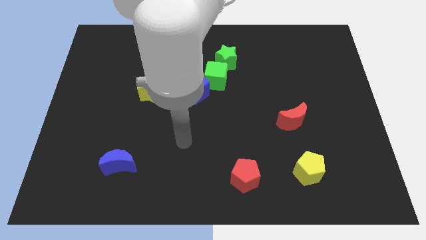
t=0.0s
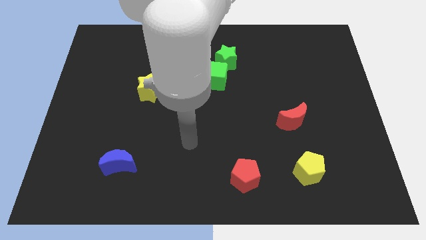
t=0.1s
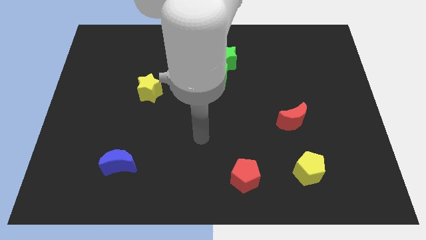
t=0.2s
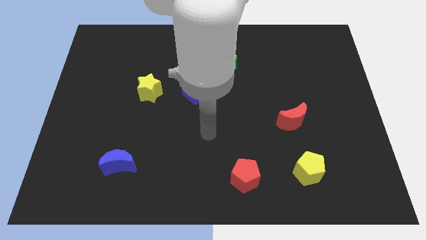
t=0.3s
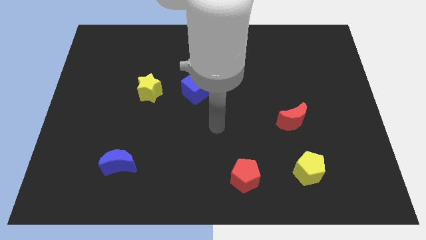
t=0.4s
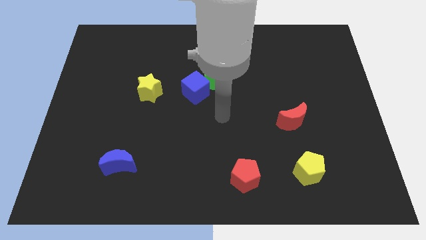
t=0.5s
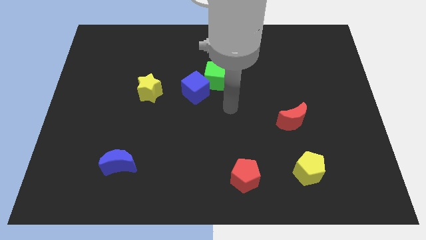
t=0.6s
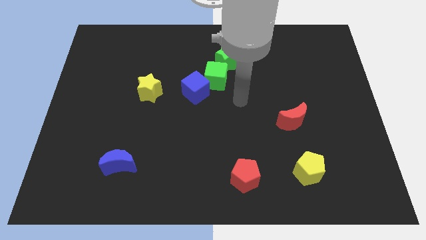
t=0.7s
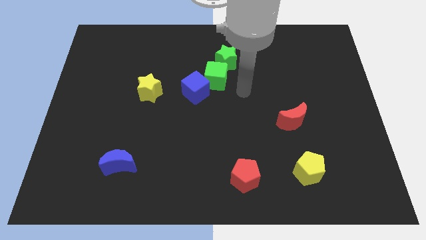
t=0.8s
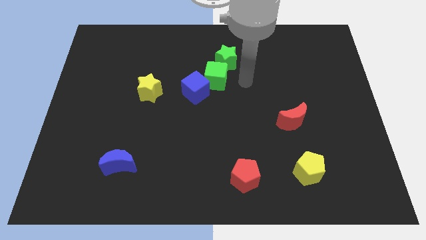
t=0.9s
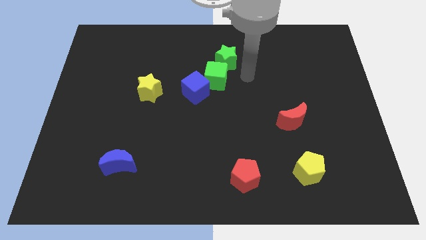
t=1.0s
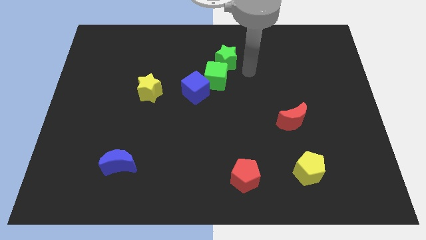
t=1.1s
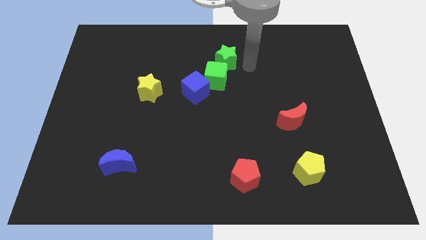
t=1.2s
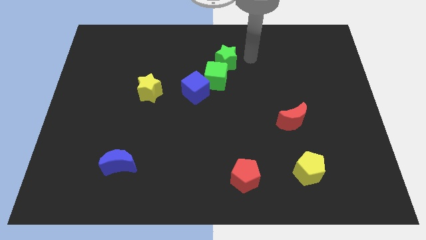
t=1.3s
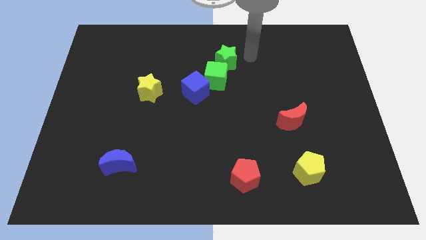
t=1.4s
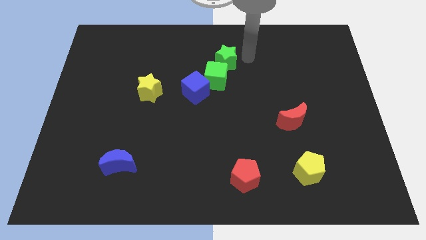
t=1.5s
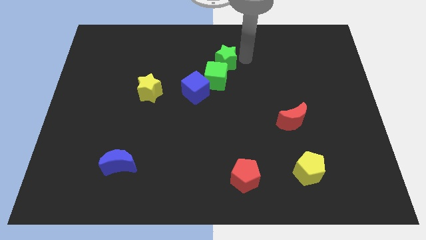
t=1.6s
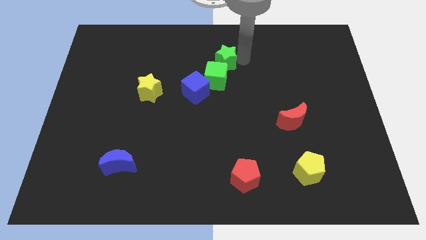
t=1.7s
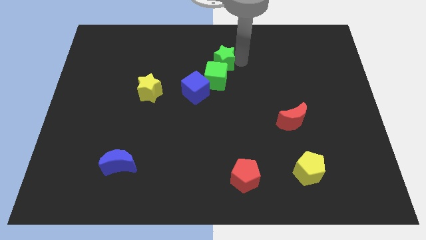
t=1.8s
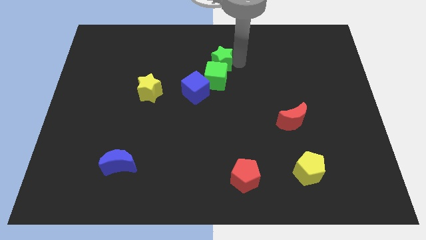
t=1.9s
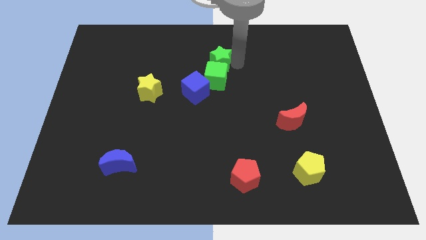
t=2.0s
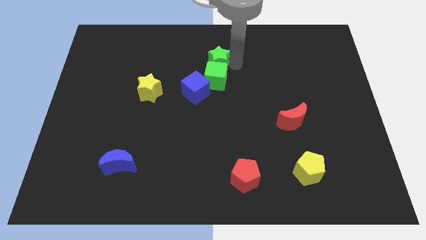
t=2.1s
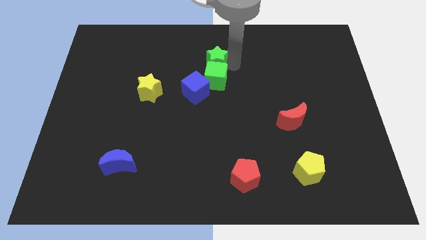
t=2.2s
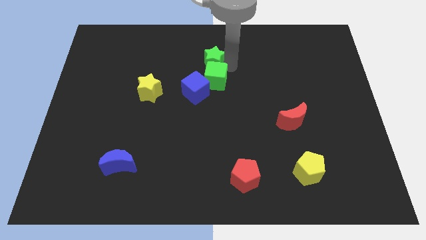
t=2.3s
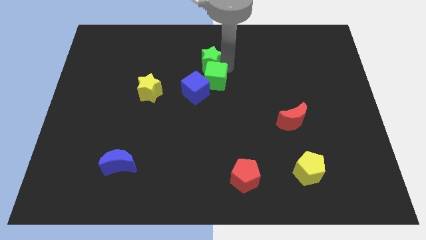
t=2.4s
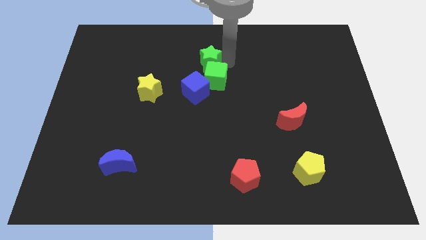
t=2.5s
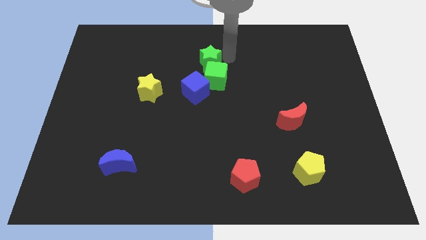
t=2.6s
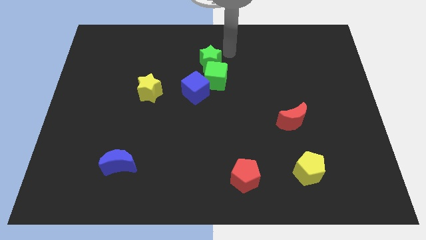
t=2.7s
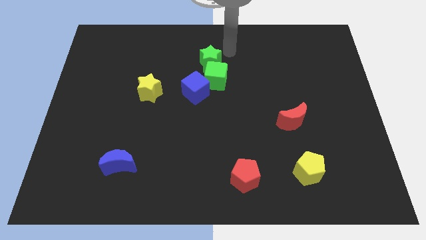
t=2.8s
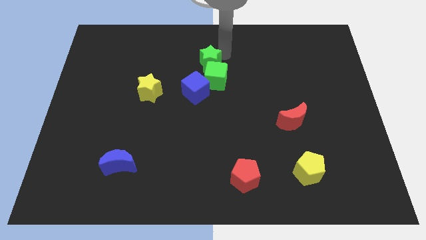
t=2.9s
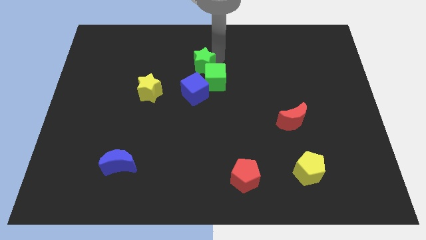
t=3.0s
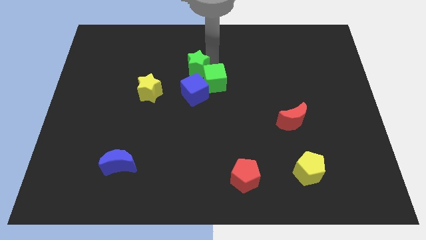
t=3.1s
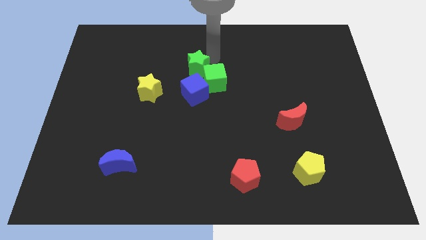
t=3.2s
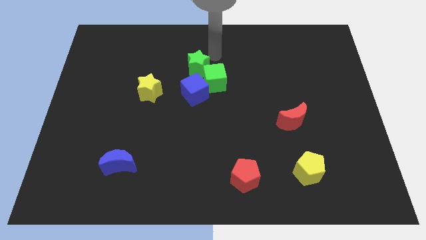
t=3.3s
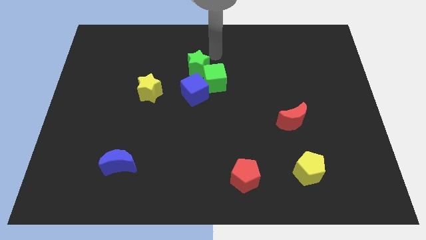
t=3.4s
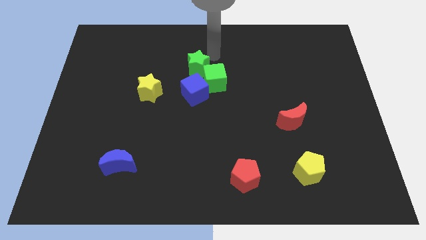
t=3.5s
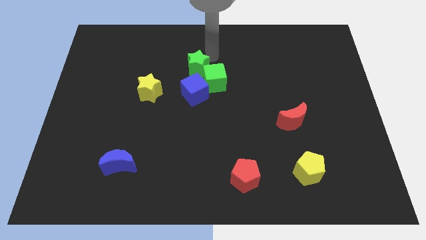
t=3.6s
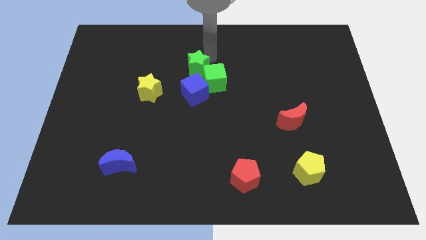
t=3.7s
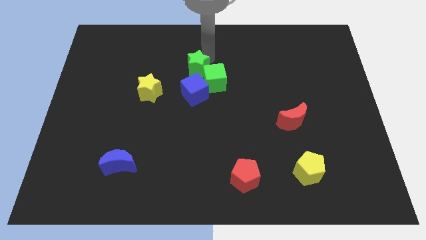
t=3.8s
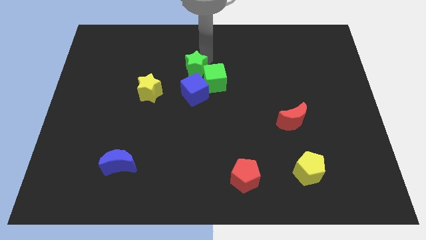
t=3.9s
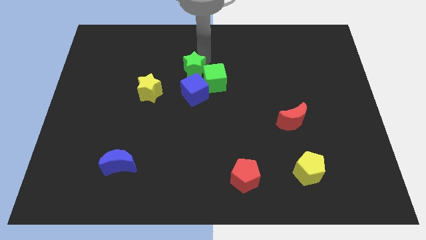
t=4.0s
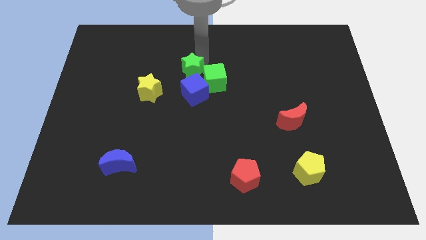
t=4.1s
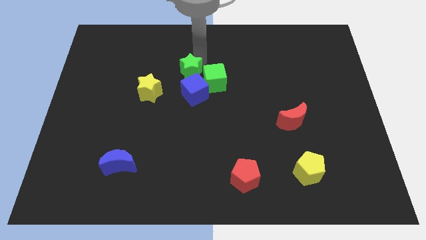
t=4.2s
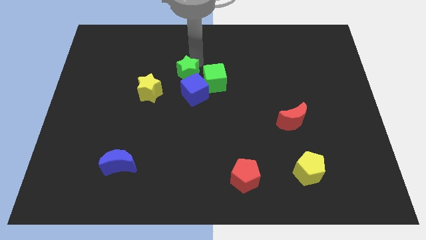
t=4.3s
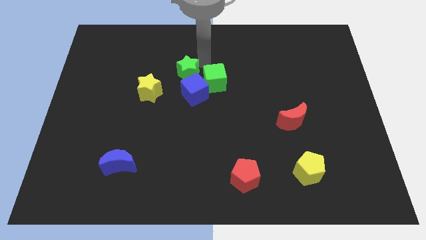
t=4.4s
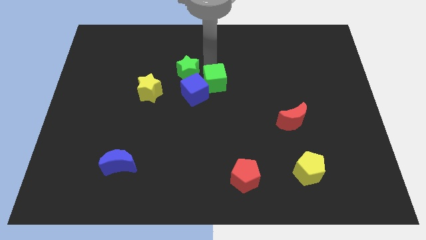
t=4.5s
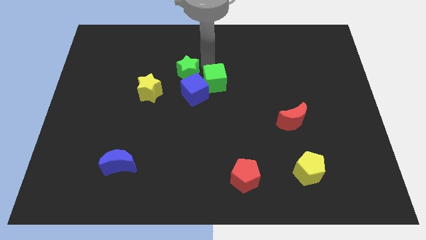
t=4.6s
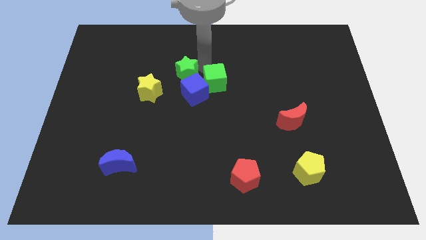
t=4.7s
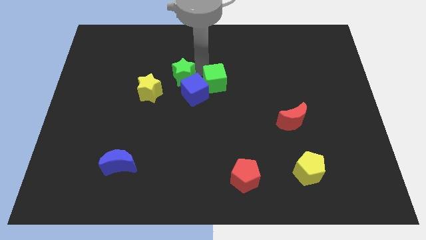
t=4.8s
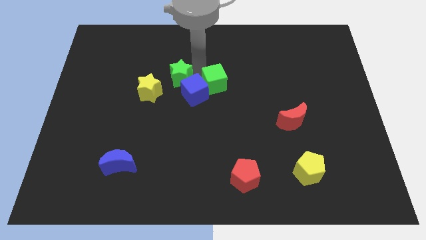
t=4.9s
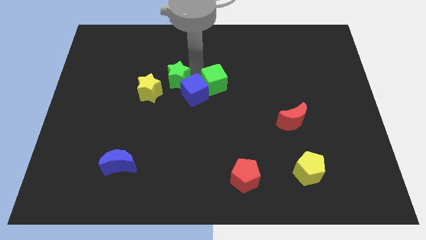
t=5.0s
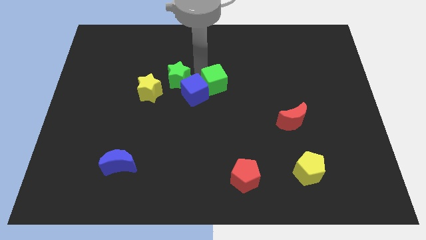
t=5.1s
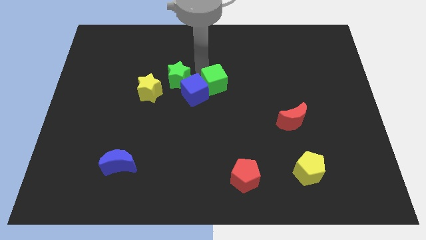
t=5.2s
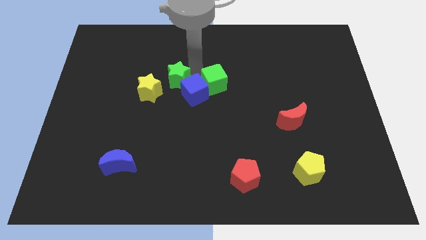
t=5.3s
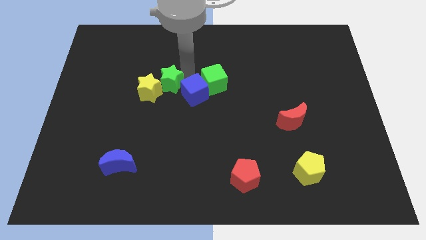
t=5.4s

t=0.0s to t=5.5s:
move the green star to the yellow star

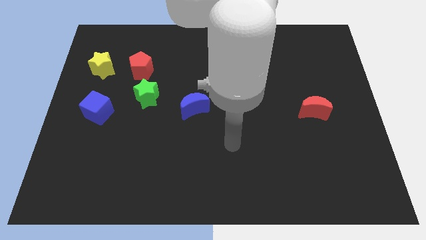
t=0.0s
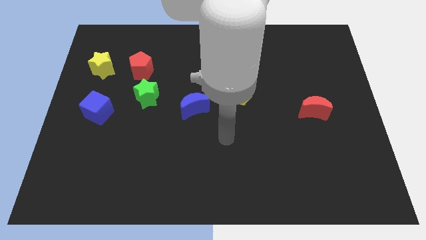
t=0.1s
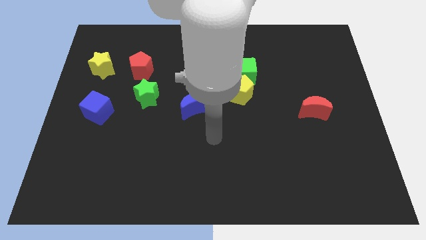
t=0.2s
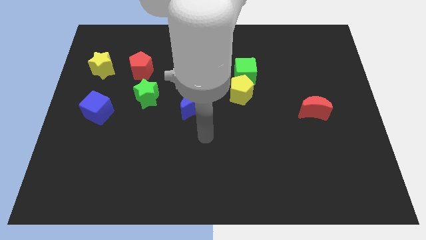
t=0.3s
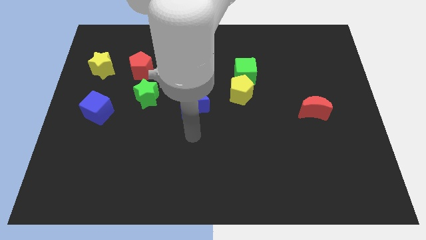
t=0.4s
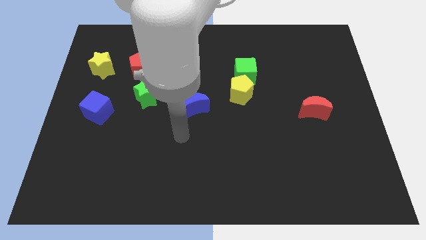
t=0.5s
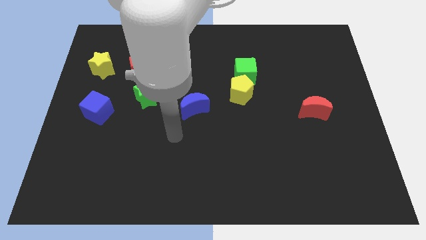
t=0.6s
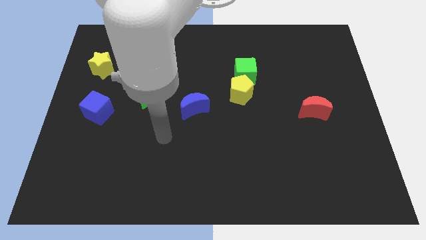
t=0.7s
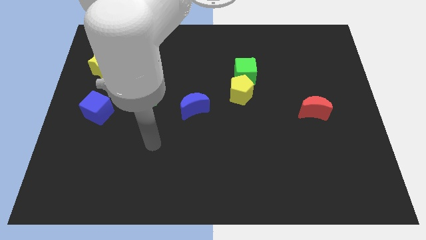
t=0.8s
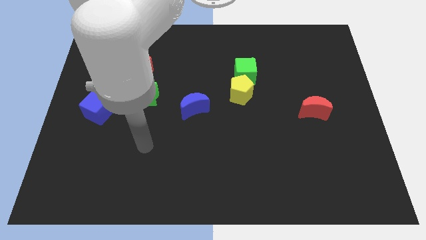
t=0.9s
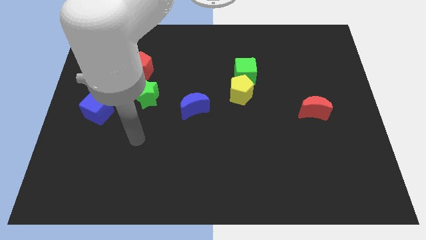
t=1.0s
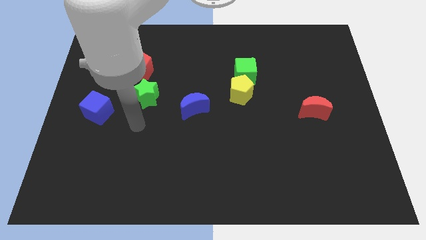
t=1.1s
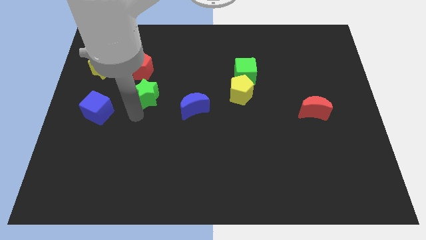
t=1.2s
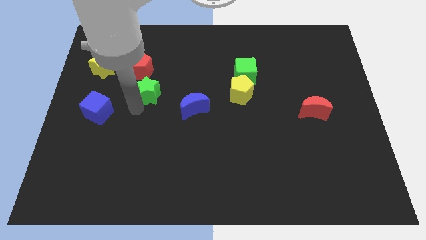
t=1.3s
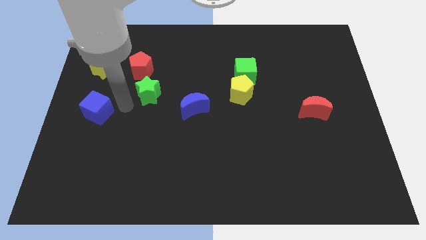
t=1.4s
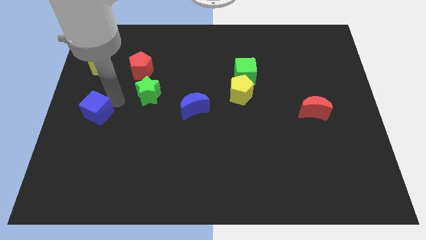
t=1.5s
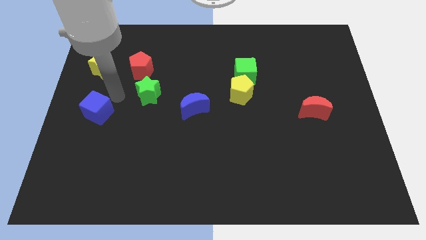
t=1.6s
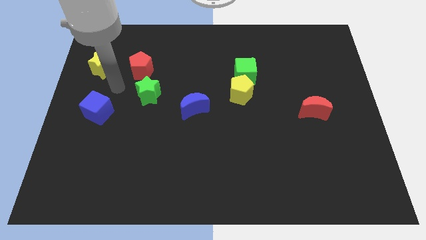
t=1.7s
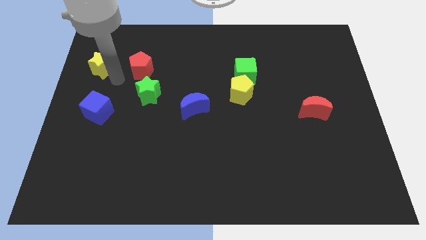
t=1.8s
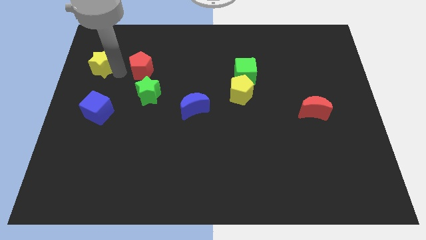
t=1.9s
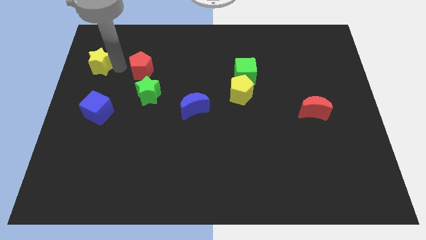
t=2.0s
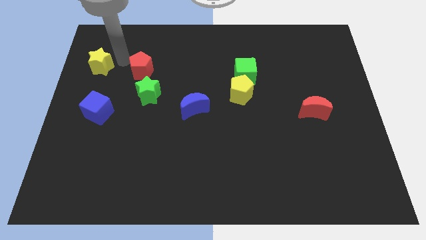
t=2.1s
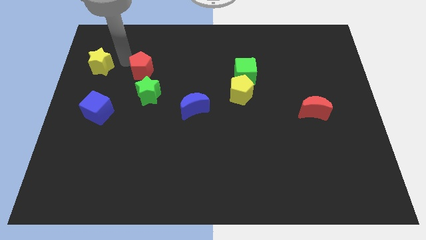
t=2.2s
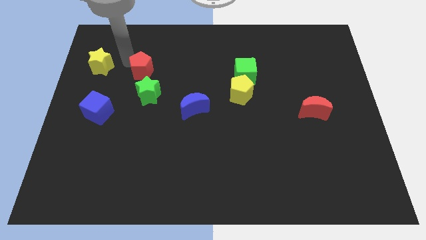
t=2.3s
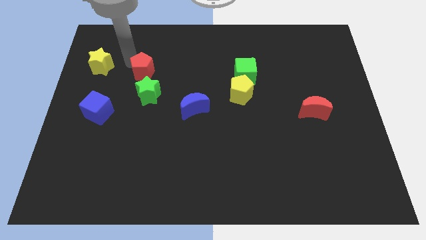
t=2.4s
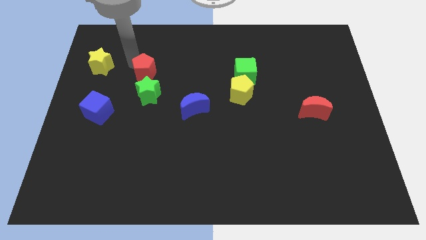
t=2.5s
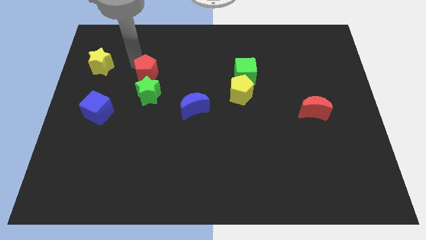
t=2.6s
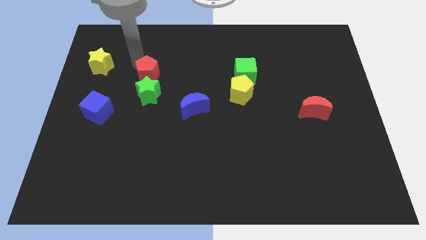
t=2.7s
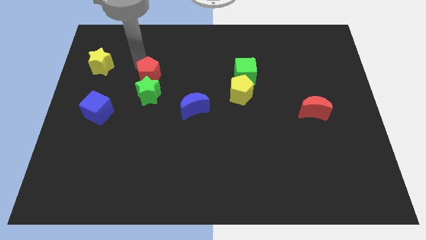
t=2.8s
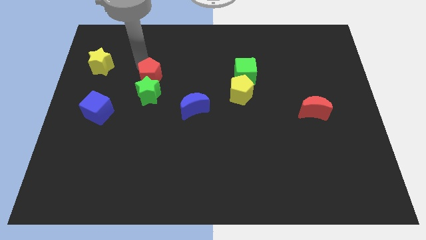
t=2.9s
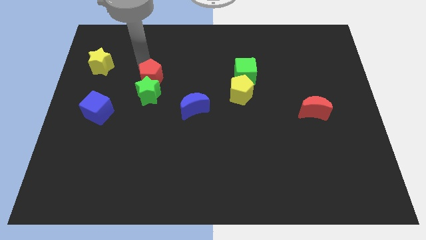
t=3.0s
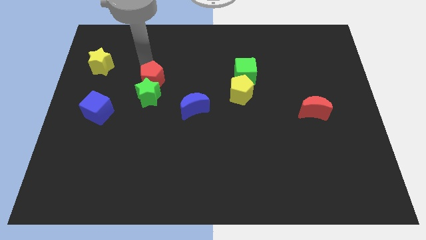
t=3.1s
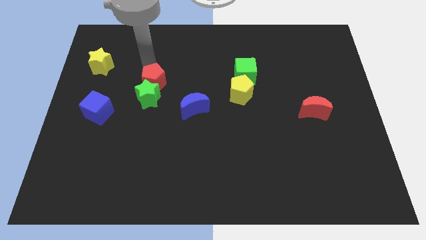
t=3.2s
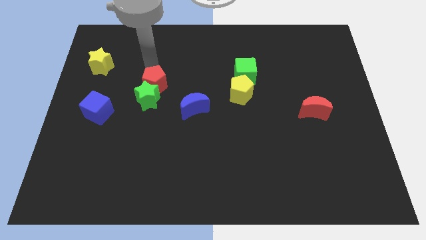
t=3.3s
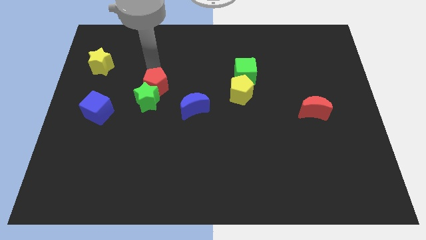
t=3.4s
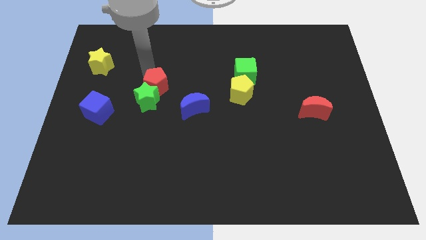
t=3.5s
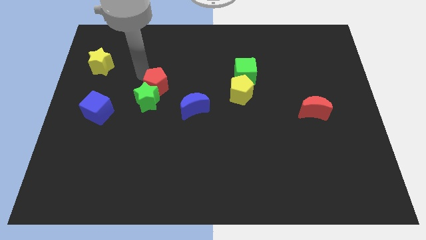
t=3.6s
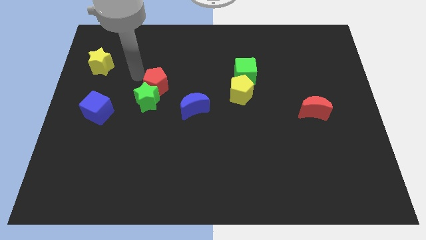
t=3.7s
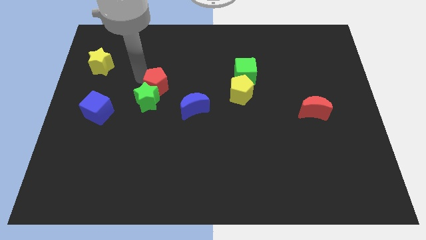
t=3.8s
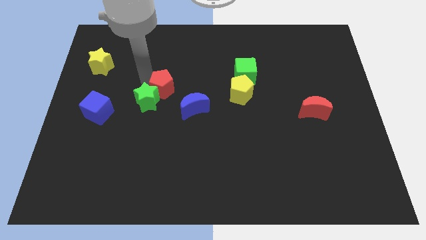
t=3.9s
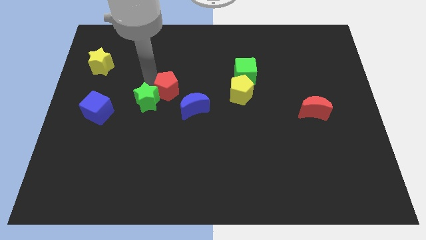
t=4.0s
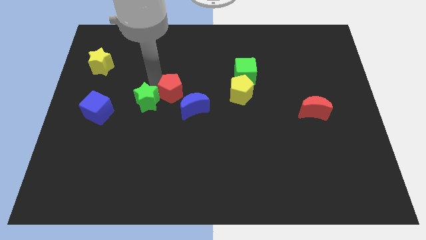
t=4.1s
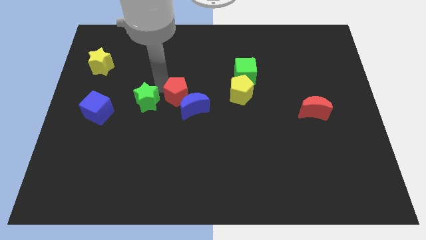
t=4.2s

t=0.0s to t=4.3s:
put the red pentagon to the blue moon
